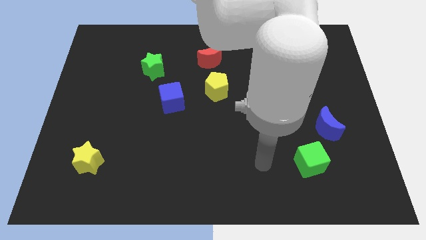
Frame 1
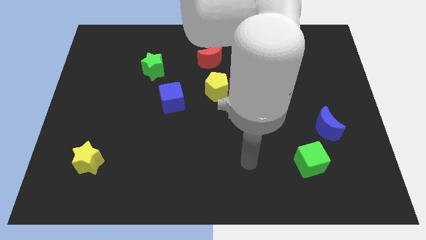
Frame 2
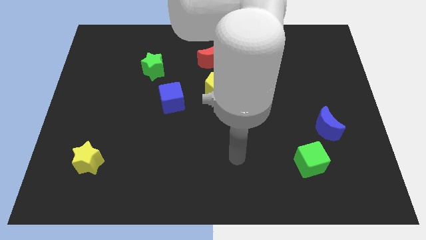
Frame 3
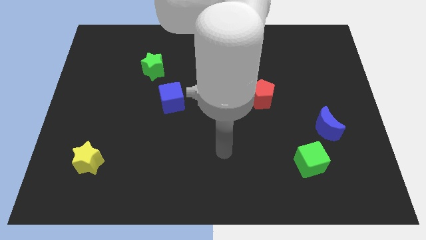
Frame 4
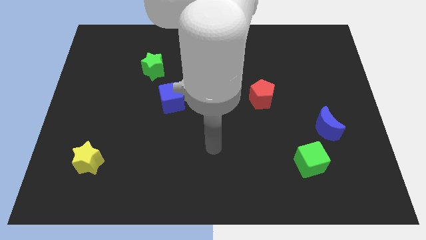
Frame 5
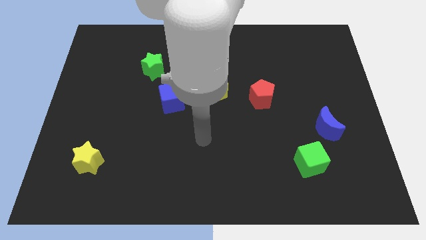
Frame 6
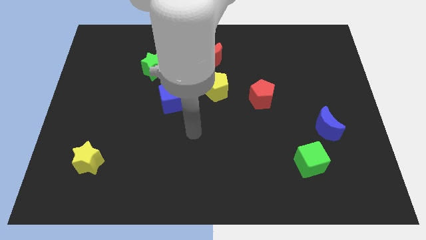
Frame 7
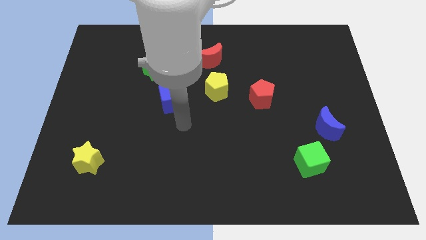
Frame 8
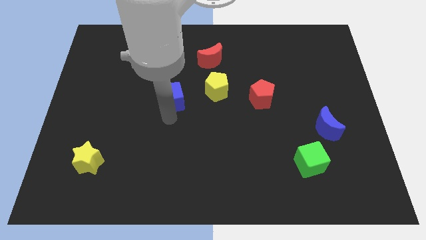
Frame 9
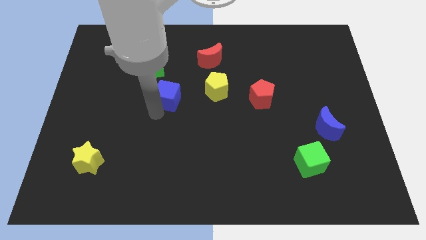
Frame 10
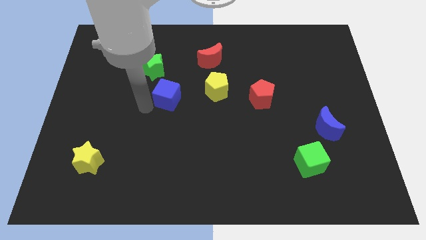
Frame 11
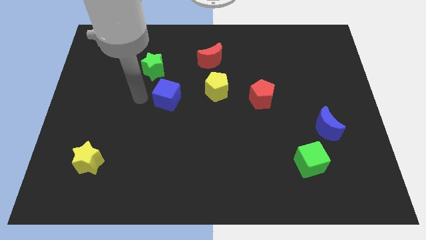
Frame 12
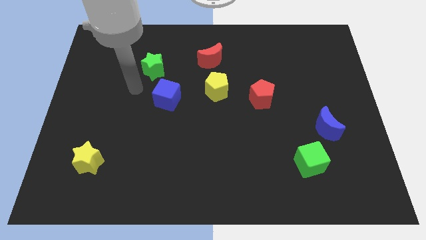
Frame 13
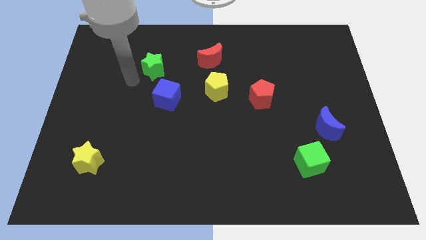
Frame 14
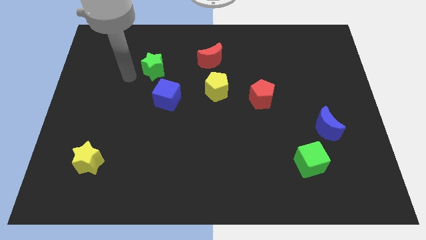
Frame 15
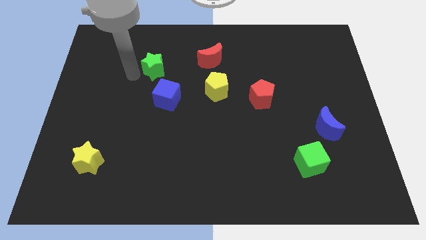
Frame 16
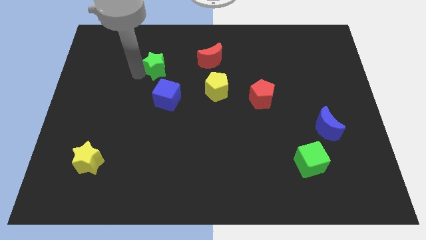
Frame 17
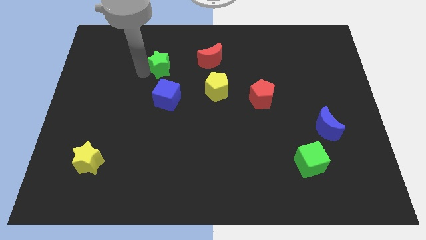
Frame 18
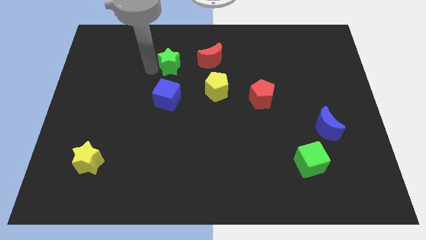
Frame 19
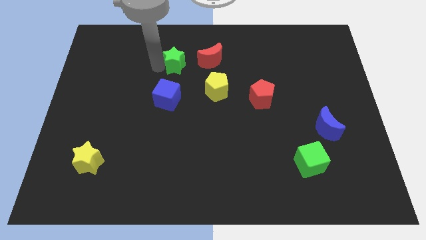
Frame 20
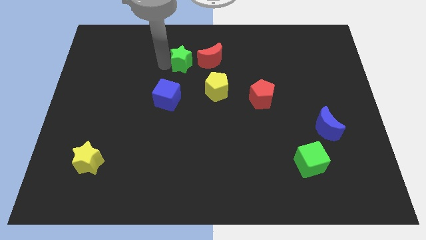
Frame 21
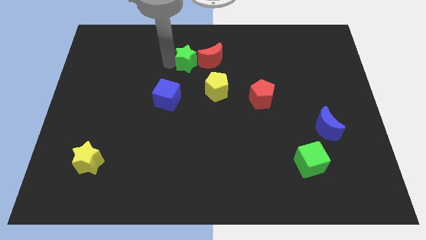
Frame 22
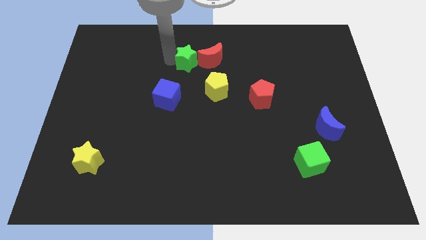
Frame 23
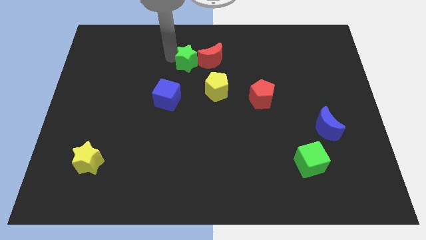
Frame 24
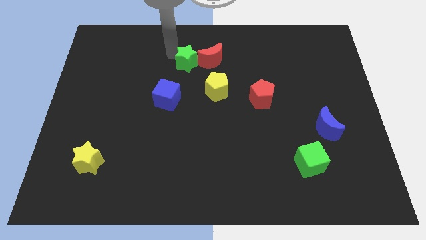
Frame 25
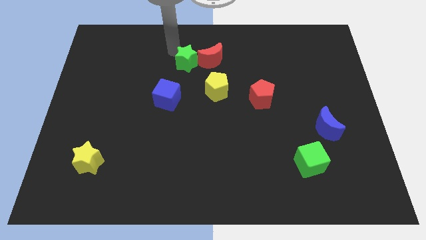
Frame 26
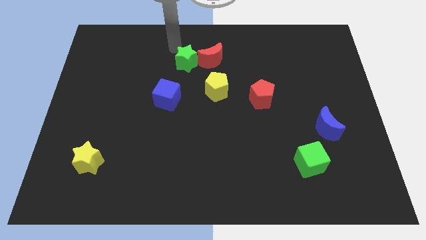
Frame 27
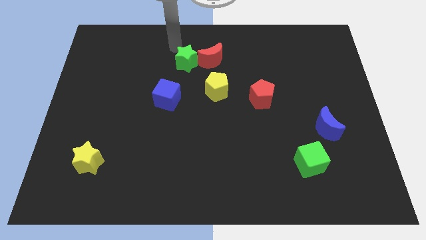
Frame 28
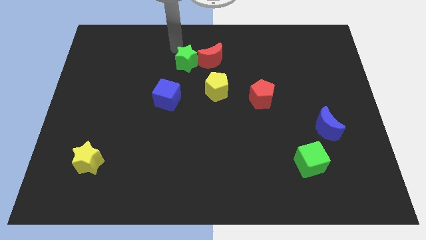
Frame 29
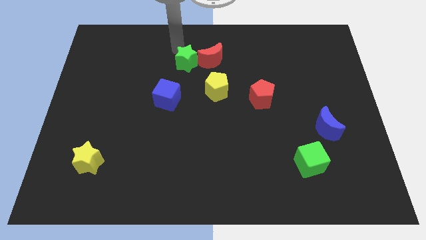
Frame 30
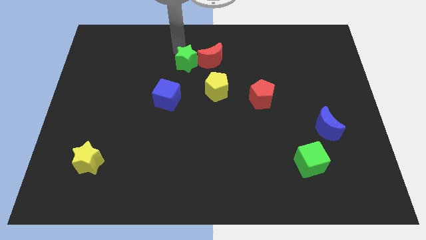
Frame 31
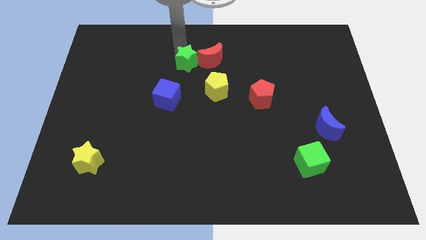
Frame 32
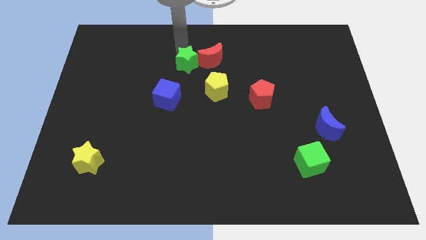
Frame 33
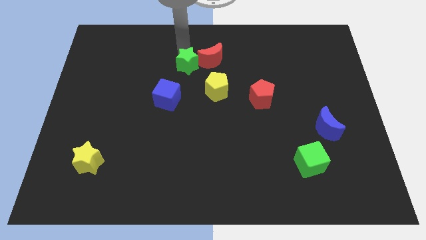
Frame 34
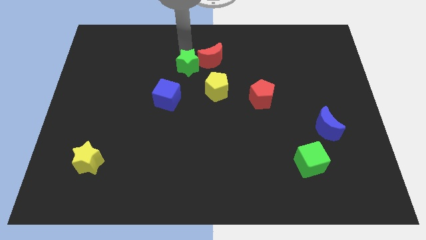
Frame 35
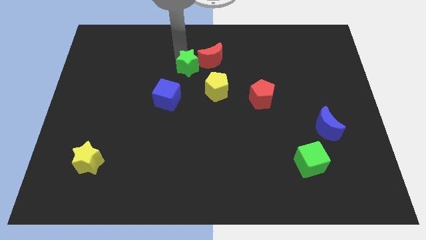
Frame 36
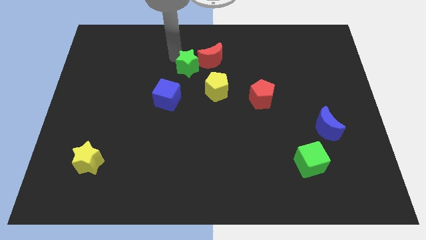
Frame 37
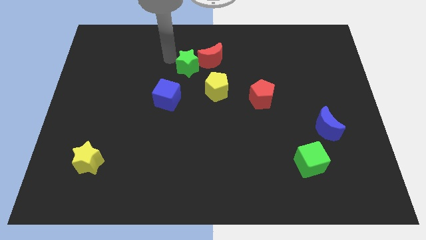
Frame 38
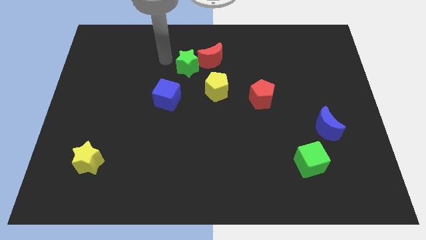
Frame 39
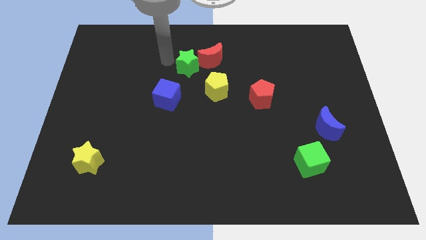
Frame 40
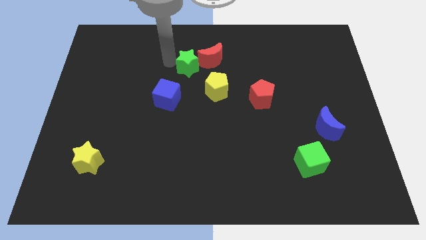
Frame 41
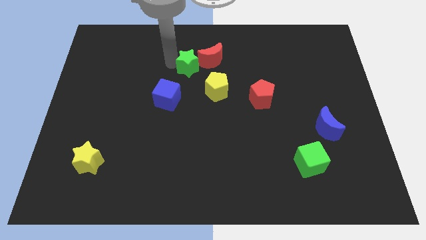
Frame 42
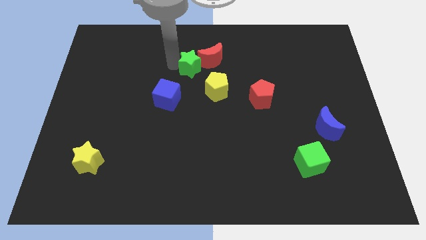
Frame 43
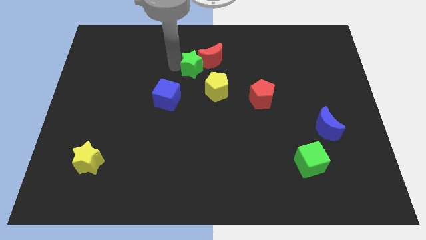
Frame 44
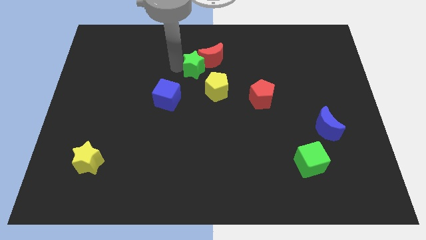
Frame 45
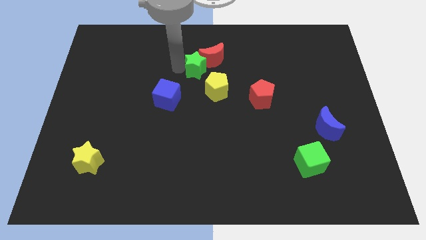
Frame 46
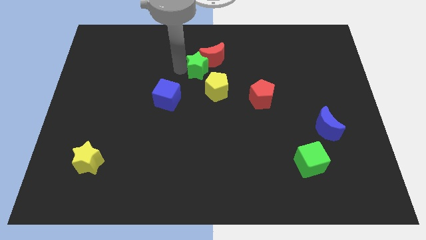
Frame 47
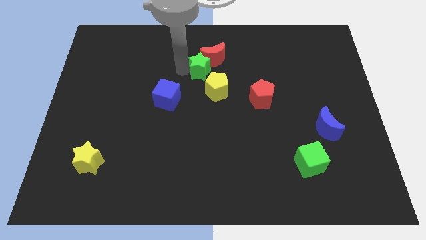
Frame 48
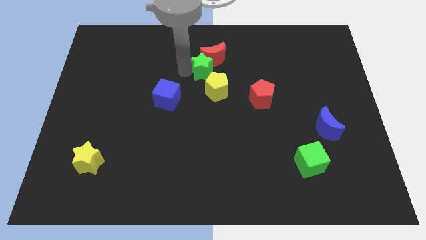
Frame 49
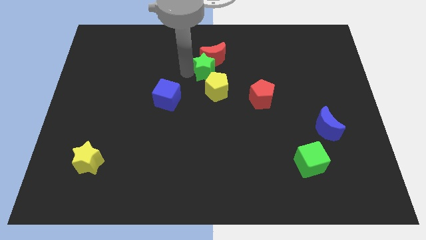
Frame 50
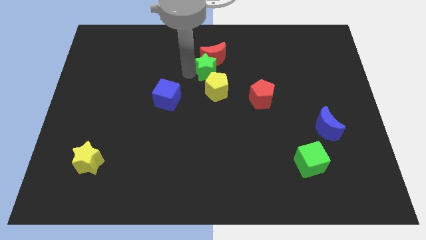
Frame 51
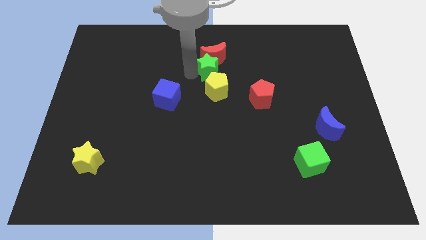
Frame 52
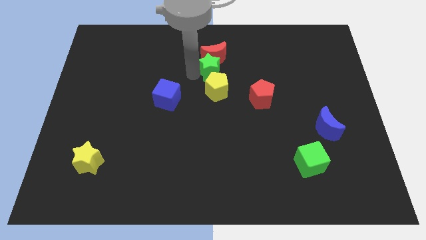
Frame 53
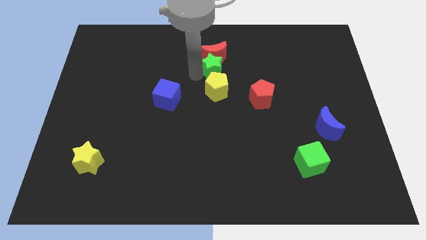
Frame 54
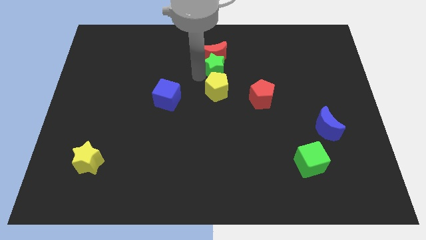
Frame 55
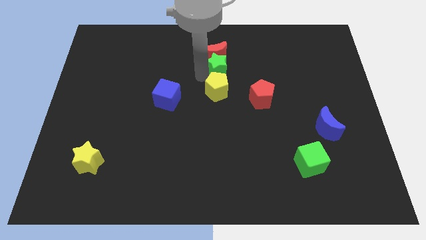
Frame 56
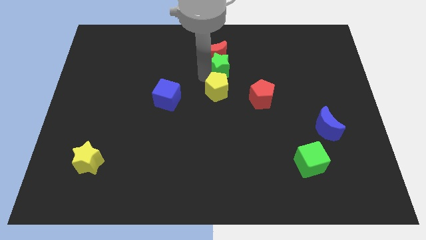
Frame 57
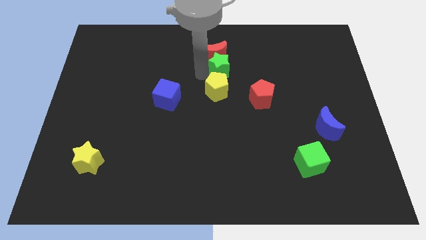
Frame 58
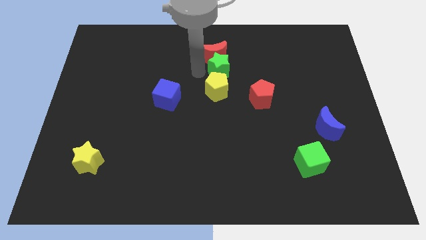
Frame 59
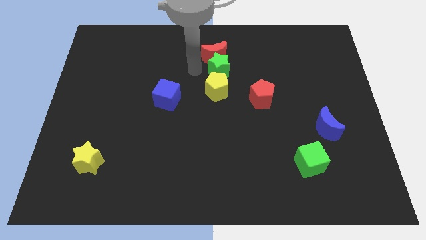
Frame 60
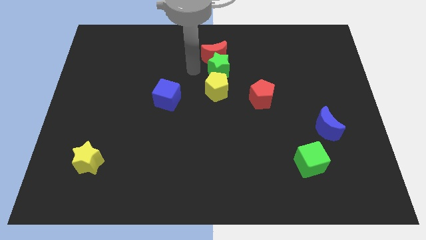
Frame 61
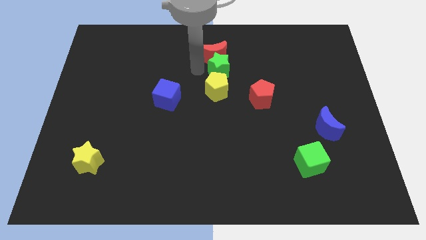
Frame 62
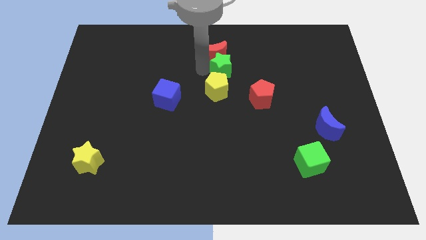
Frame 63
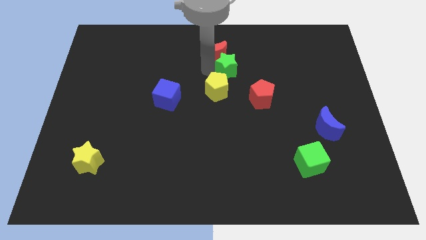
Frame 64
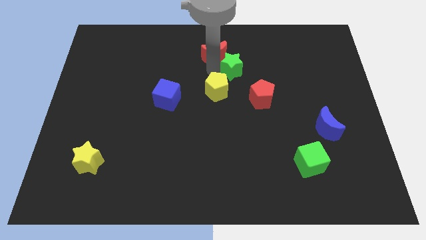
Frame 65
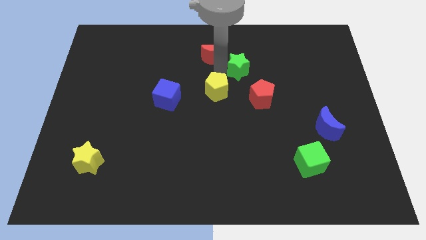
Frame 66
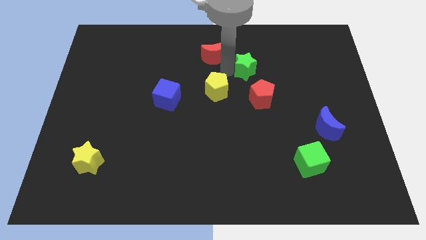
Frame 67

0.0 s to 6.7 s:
push the green star above the red pentagon

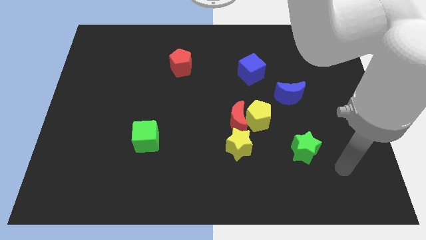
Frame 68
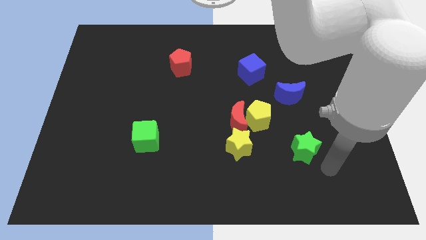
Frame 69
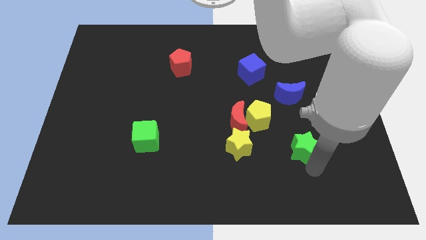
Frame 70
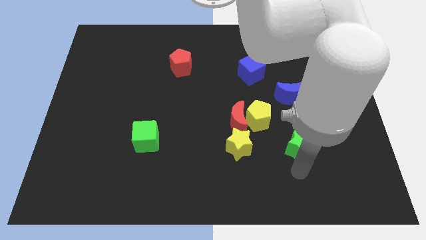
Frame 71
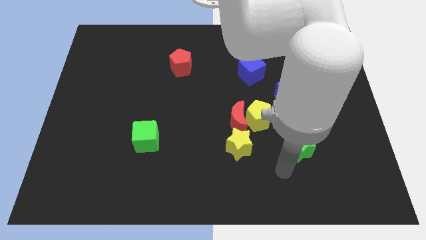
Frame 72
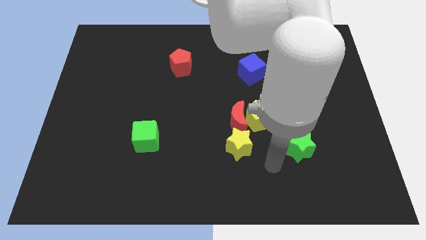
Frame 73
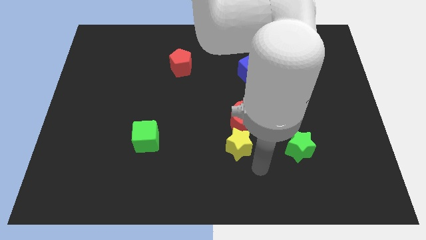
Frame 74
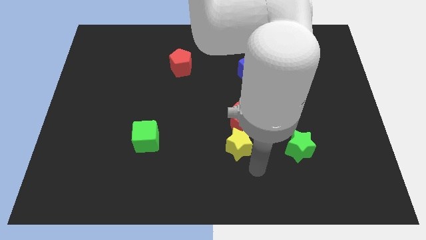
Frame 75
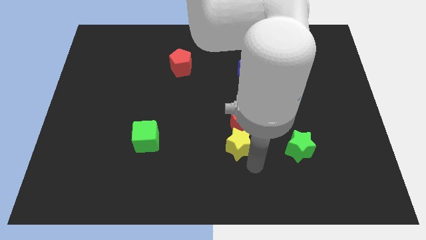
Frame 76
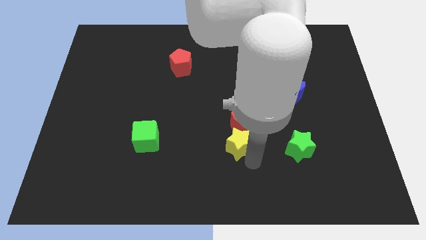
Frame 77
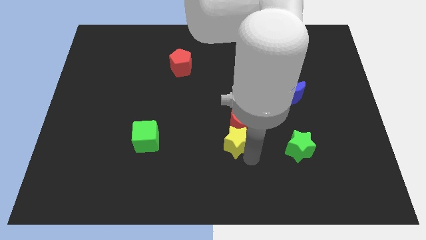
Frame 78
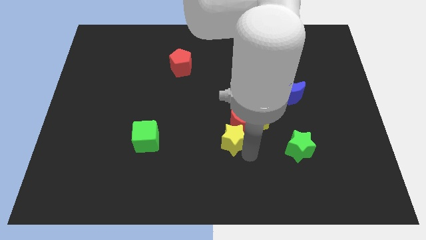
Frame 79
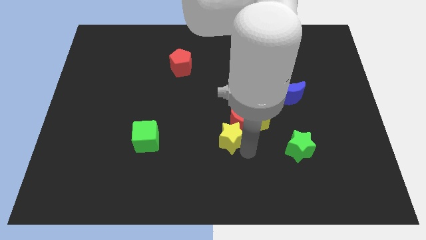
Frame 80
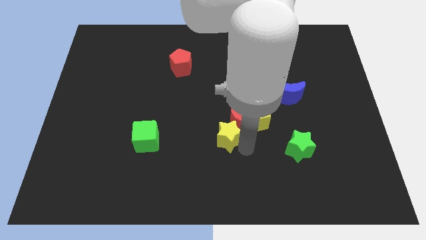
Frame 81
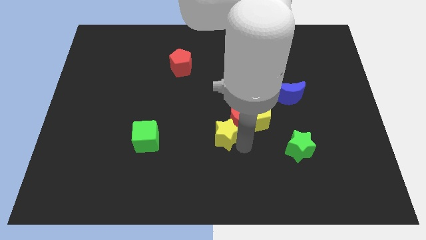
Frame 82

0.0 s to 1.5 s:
put the yellow star just left of the yellow pentagon
